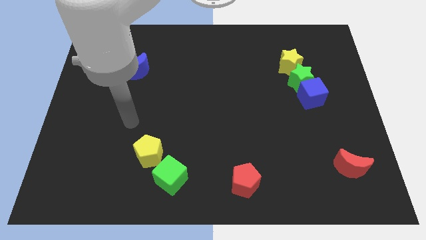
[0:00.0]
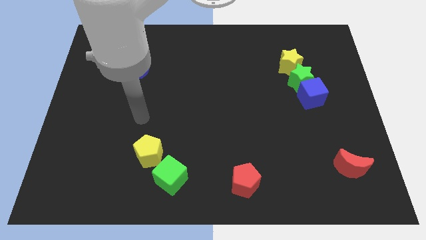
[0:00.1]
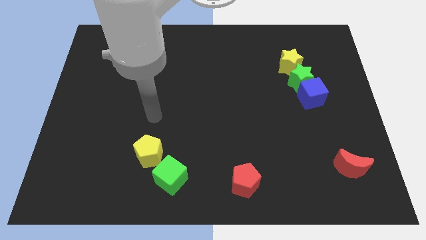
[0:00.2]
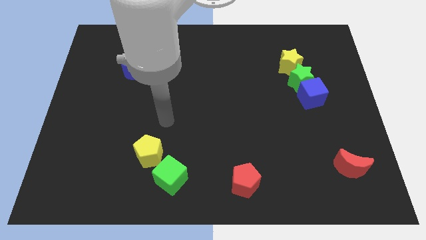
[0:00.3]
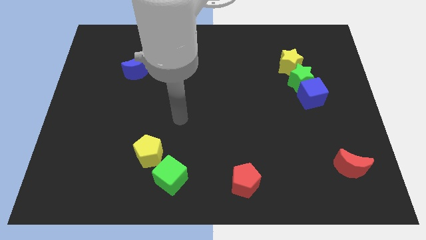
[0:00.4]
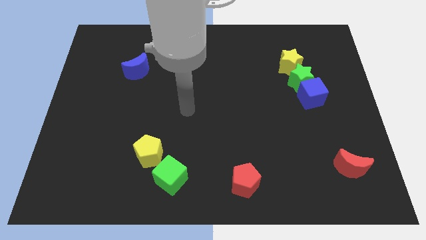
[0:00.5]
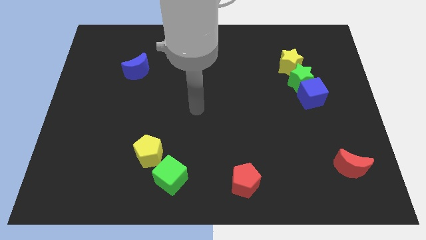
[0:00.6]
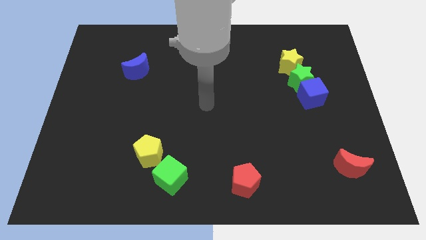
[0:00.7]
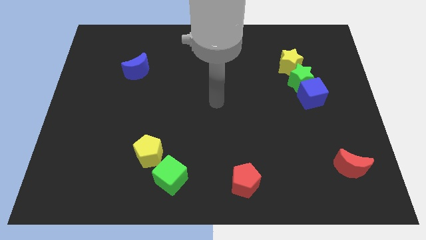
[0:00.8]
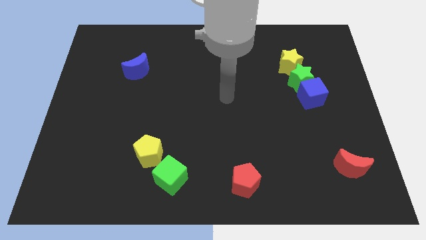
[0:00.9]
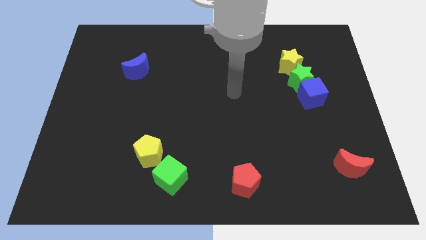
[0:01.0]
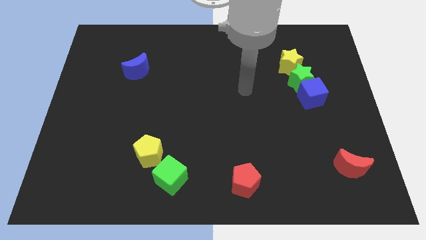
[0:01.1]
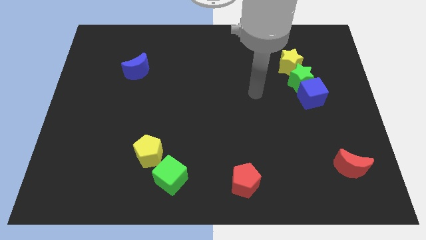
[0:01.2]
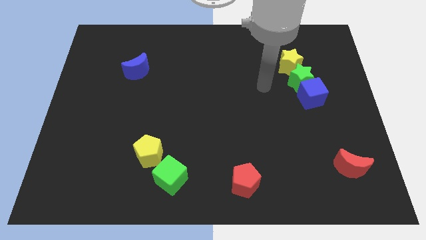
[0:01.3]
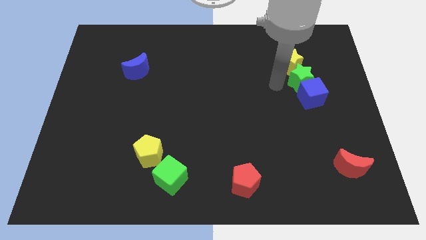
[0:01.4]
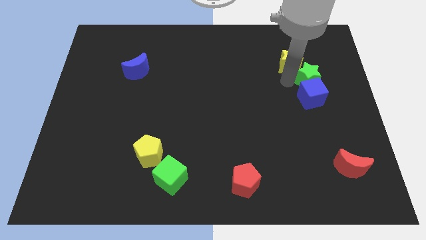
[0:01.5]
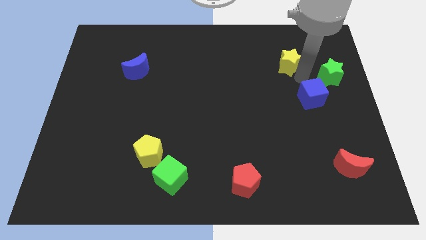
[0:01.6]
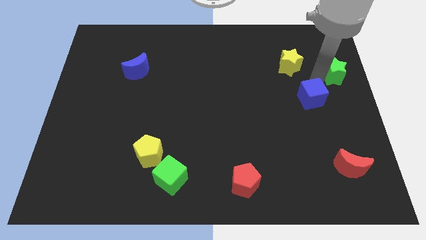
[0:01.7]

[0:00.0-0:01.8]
pull the blue cube apart from the green star

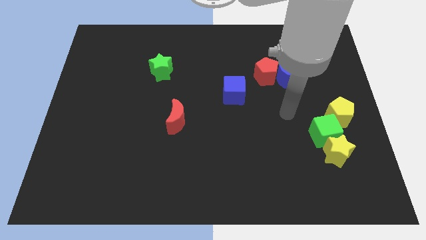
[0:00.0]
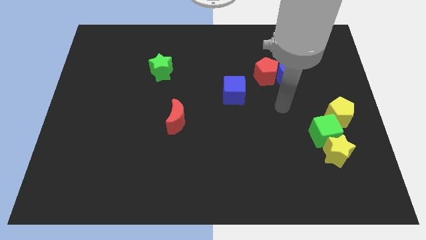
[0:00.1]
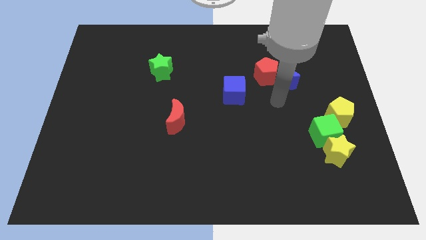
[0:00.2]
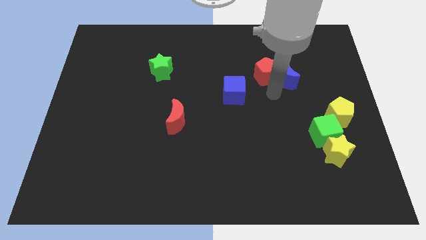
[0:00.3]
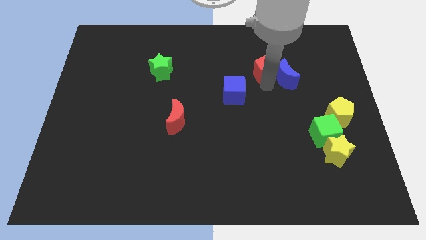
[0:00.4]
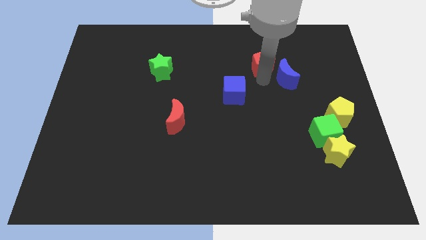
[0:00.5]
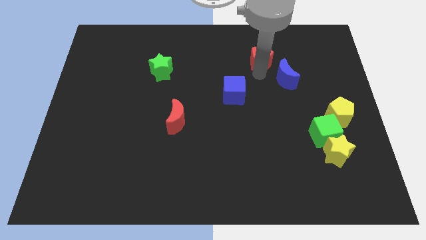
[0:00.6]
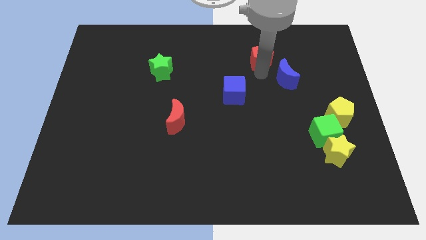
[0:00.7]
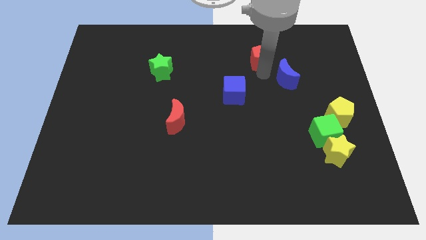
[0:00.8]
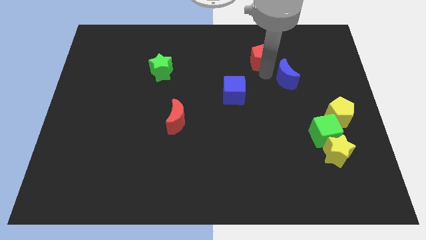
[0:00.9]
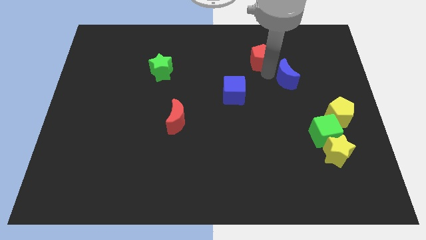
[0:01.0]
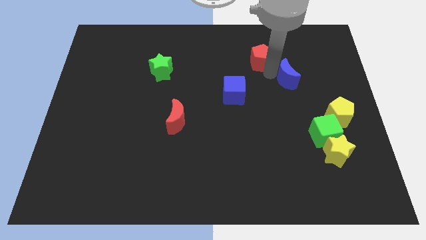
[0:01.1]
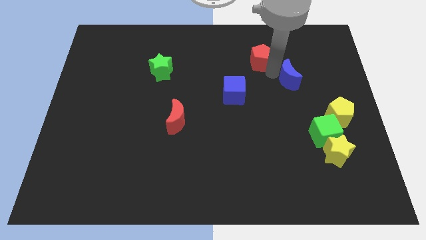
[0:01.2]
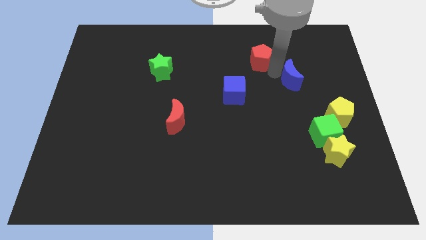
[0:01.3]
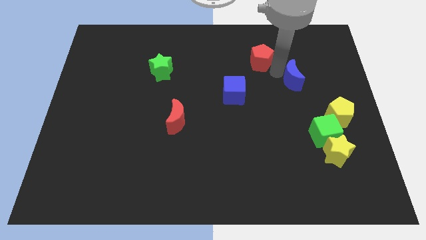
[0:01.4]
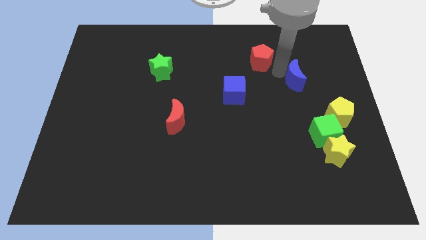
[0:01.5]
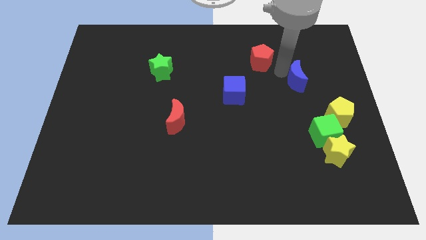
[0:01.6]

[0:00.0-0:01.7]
pull the blue moon apart from the red pentagon

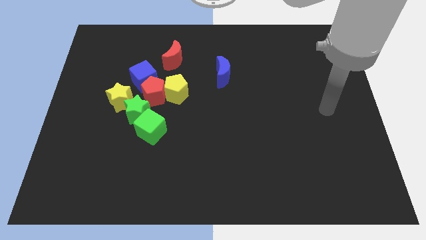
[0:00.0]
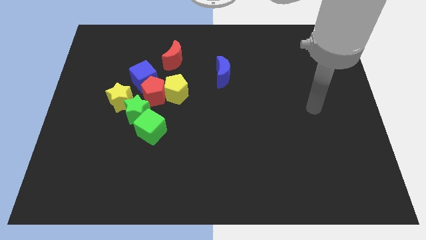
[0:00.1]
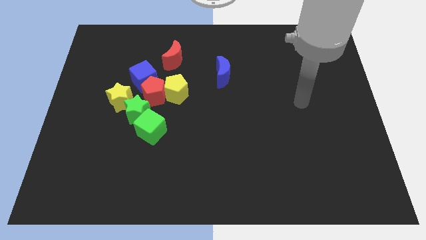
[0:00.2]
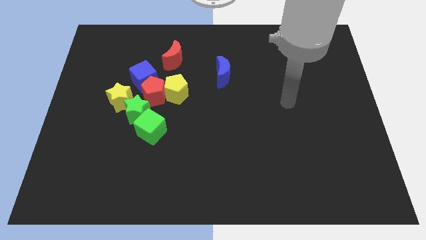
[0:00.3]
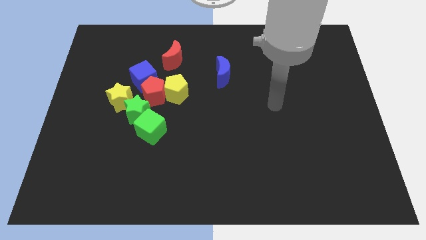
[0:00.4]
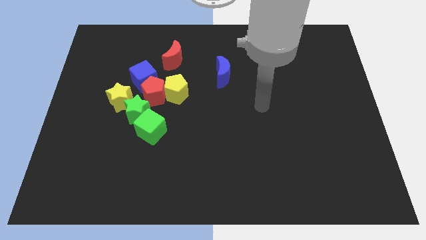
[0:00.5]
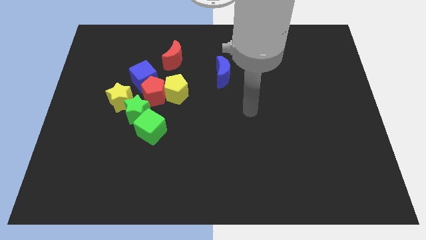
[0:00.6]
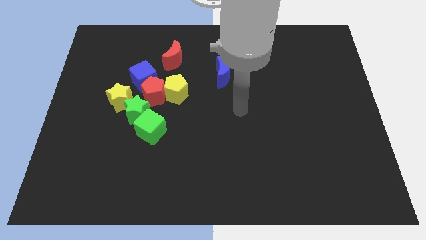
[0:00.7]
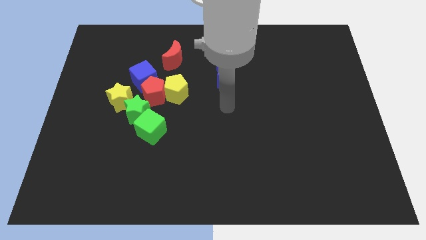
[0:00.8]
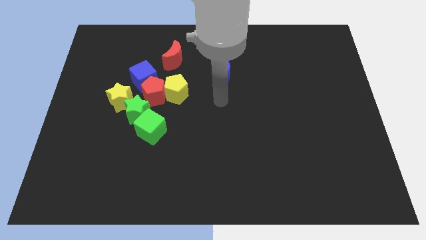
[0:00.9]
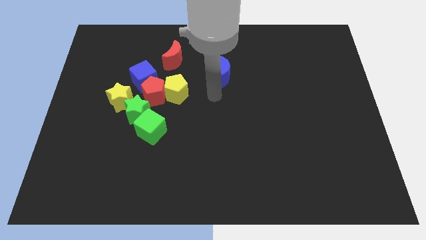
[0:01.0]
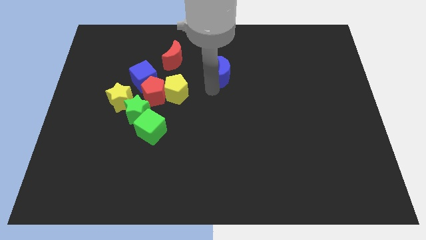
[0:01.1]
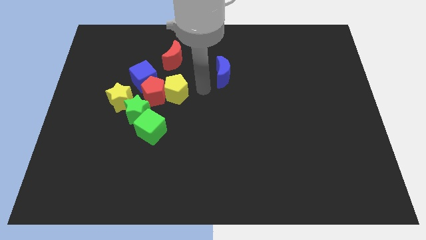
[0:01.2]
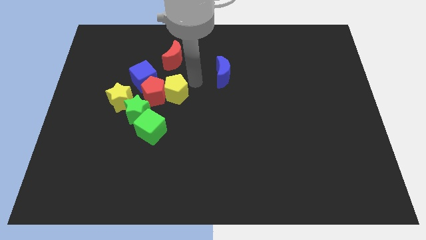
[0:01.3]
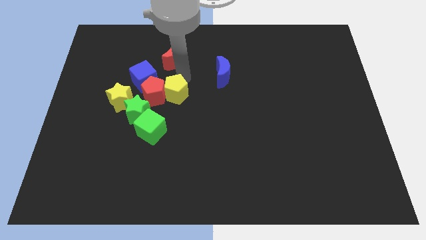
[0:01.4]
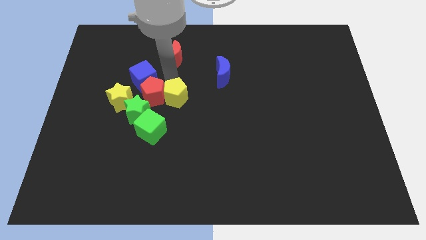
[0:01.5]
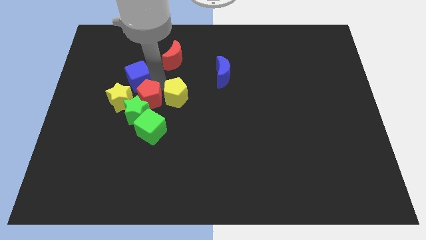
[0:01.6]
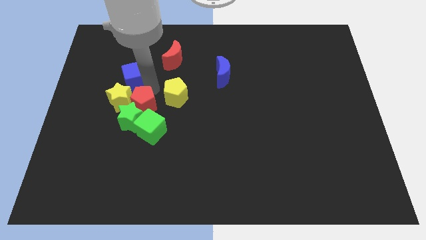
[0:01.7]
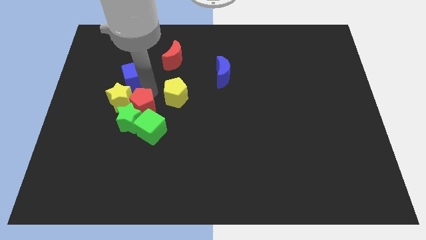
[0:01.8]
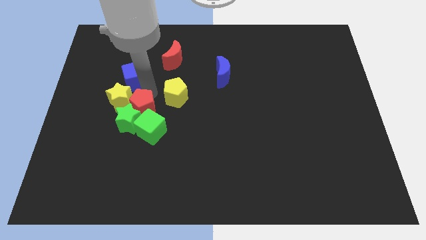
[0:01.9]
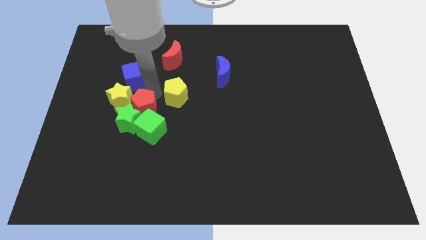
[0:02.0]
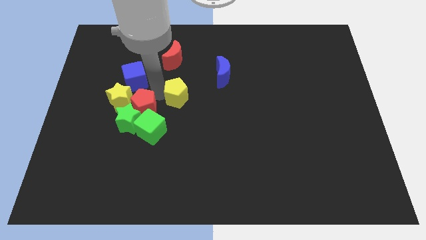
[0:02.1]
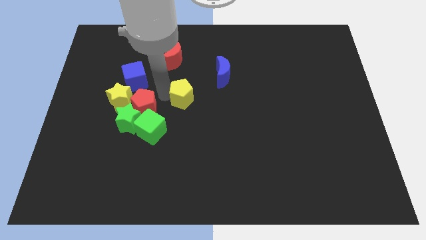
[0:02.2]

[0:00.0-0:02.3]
move the yellow pentagon away from the red pentagon and blue cube

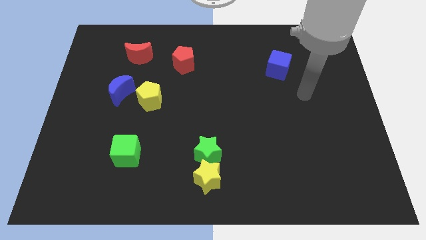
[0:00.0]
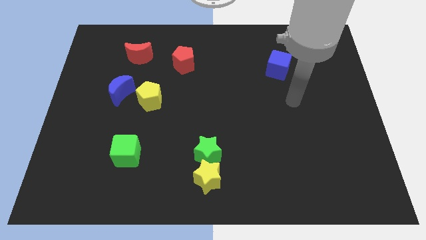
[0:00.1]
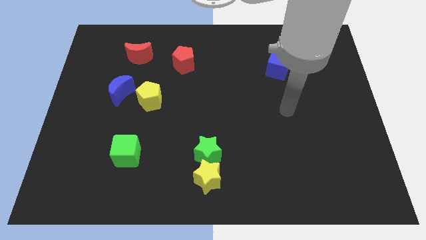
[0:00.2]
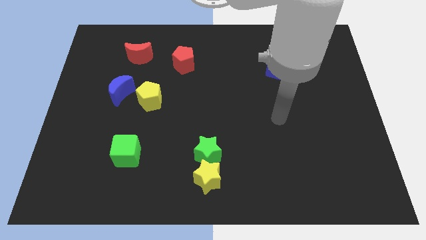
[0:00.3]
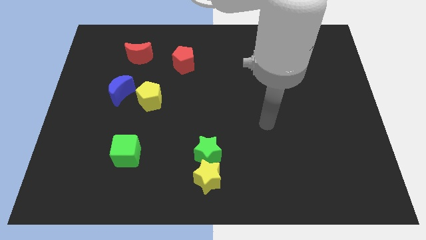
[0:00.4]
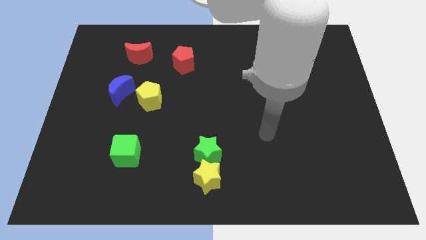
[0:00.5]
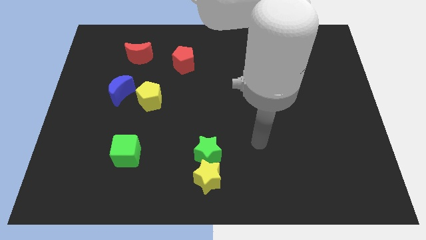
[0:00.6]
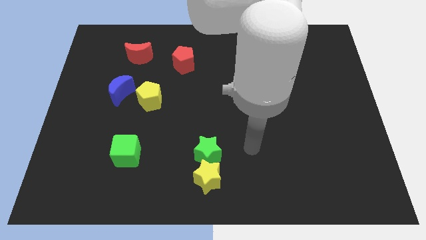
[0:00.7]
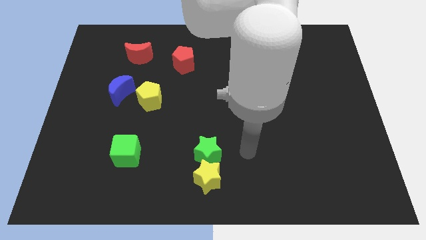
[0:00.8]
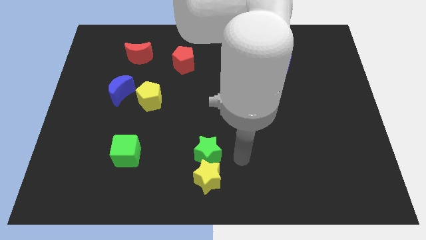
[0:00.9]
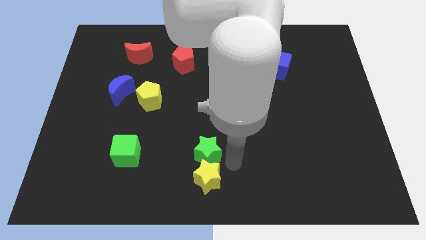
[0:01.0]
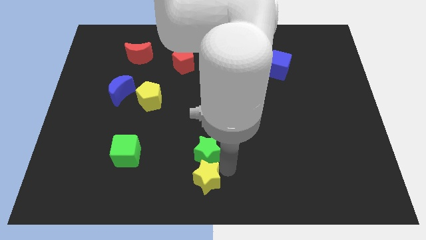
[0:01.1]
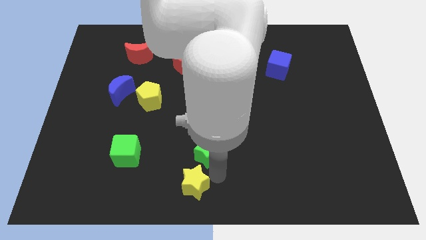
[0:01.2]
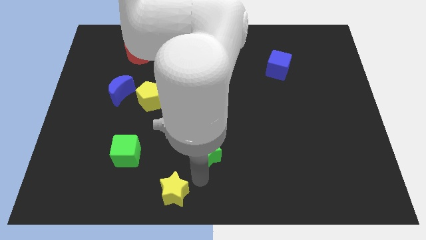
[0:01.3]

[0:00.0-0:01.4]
move the green star away from the yellow star

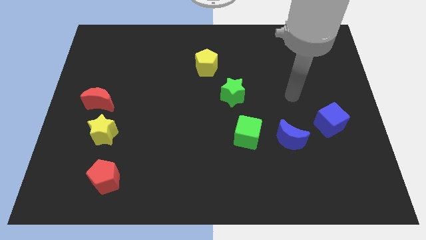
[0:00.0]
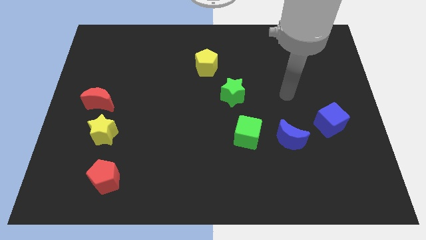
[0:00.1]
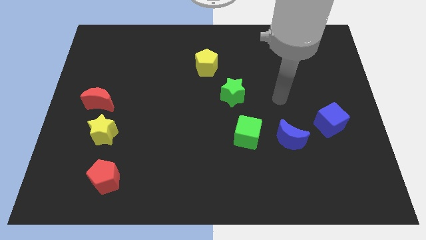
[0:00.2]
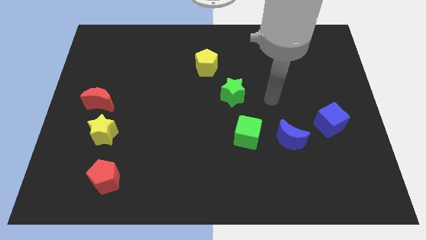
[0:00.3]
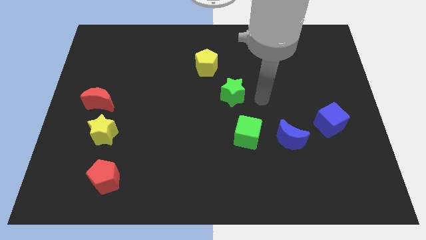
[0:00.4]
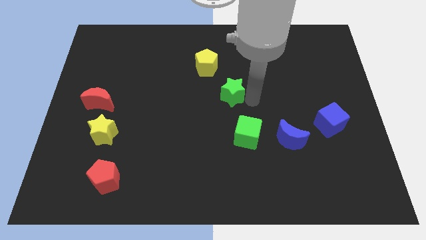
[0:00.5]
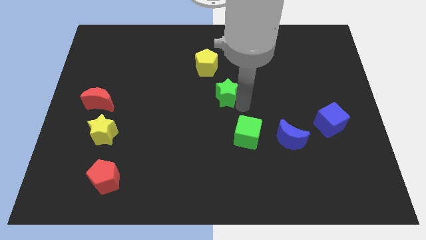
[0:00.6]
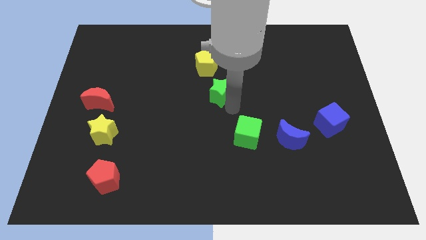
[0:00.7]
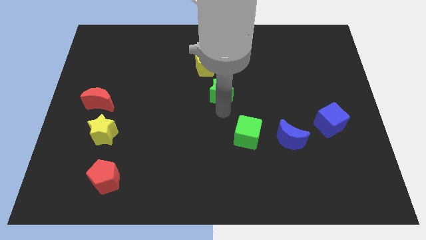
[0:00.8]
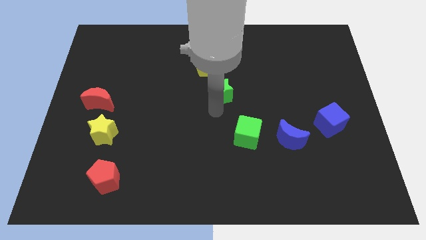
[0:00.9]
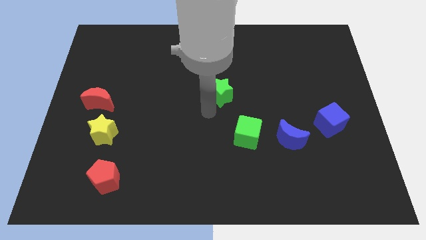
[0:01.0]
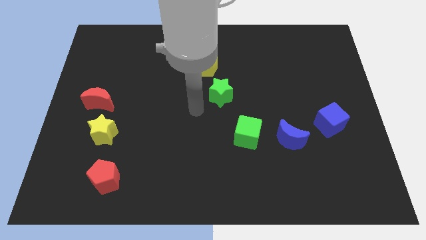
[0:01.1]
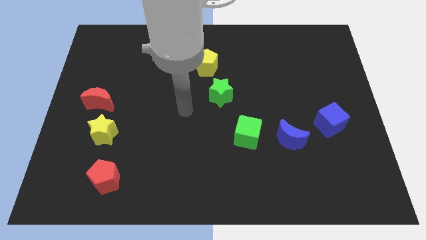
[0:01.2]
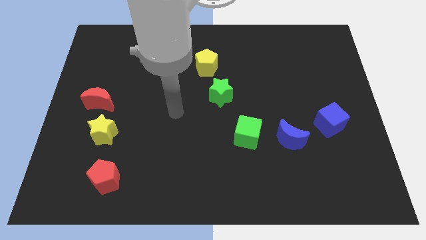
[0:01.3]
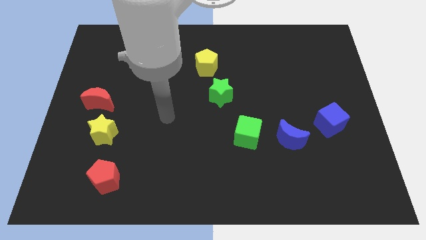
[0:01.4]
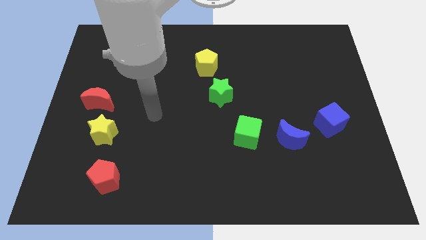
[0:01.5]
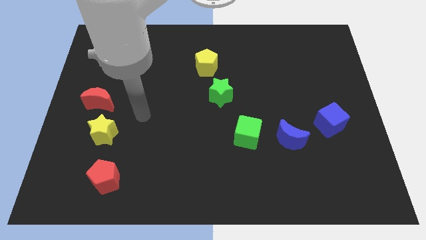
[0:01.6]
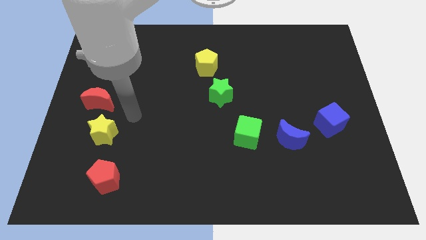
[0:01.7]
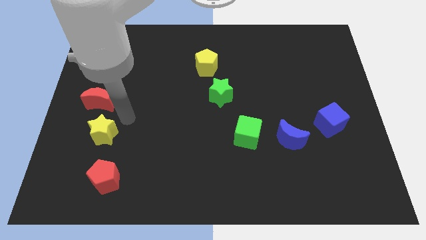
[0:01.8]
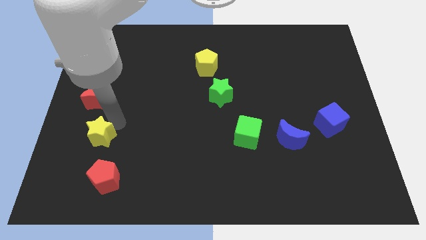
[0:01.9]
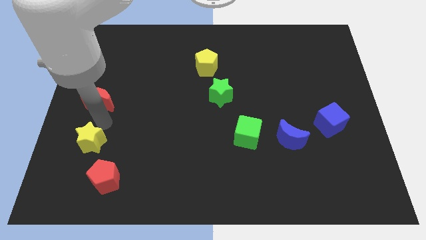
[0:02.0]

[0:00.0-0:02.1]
move the red moon away from the yellow star
